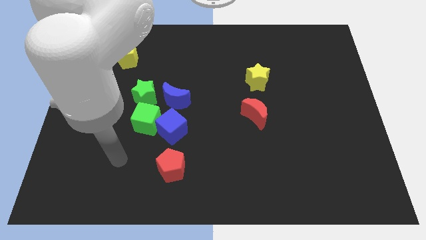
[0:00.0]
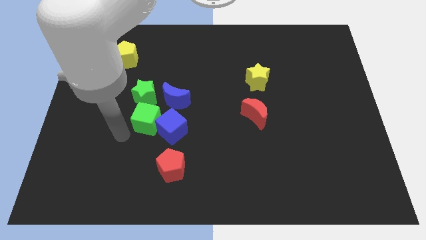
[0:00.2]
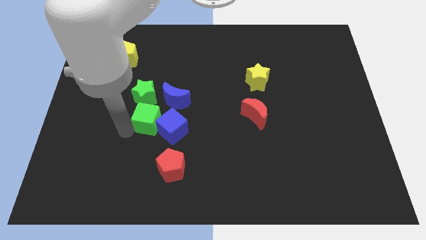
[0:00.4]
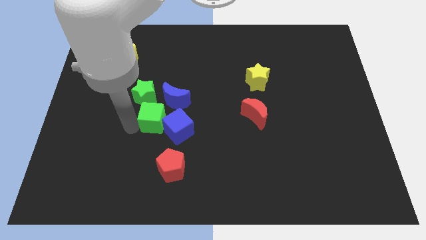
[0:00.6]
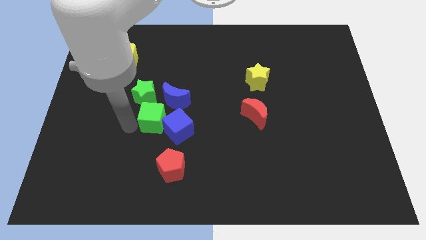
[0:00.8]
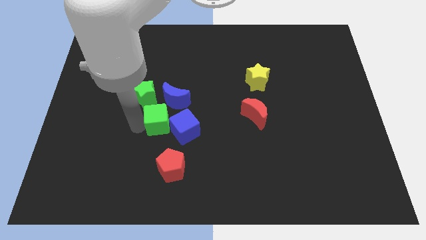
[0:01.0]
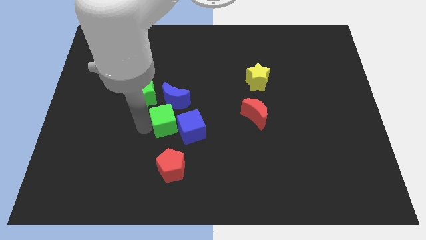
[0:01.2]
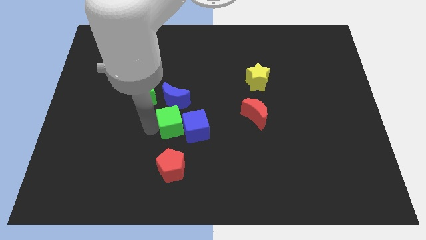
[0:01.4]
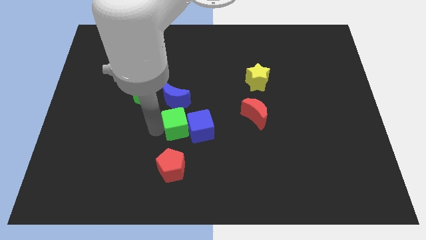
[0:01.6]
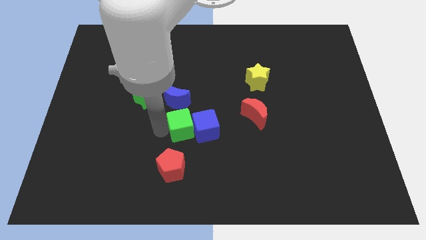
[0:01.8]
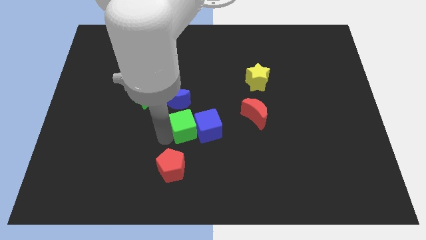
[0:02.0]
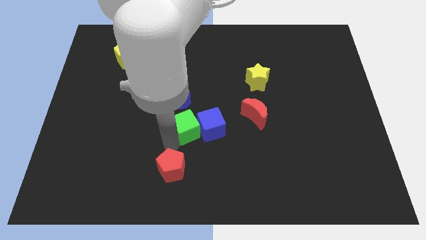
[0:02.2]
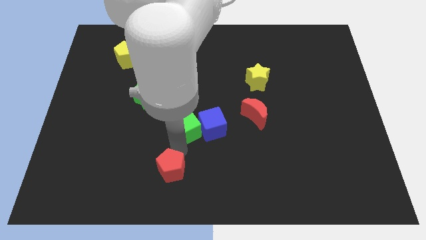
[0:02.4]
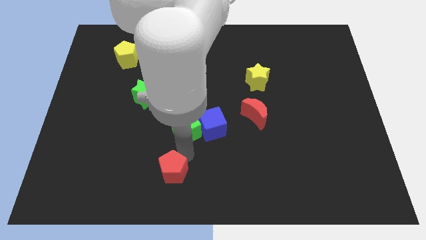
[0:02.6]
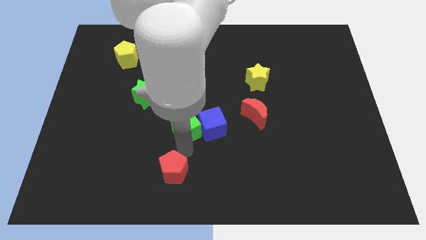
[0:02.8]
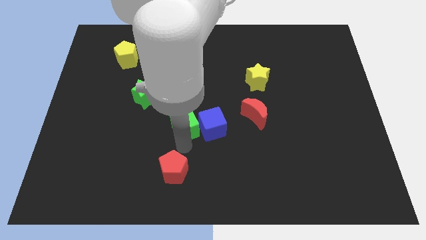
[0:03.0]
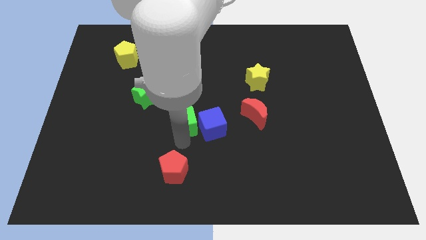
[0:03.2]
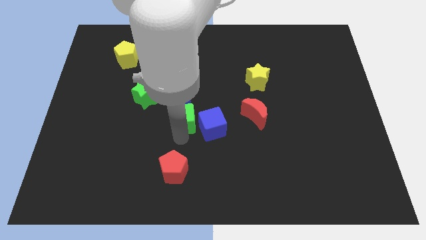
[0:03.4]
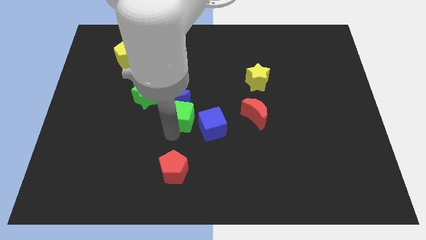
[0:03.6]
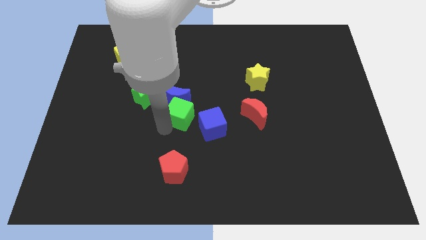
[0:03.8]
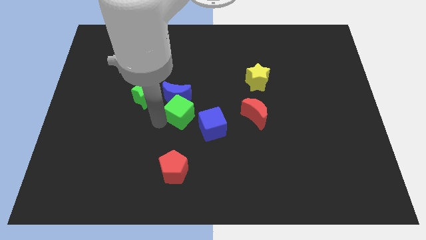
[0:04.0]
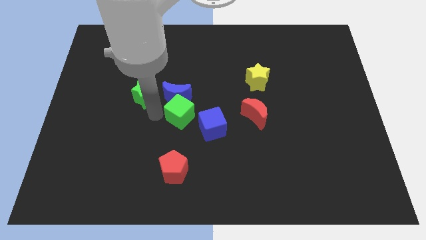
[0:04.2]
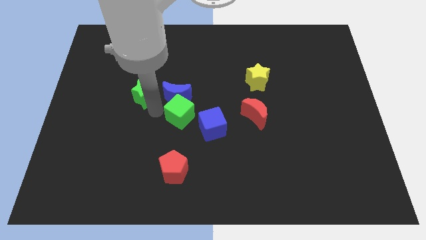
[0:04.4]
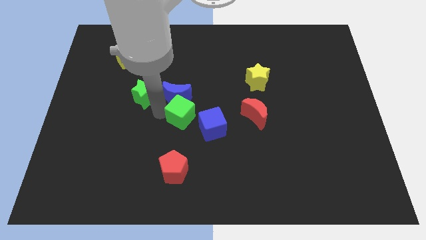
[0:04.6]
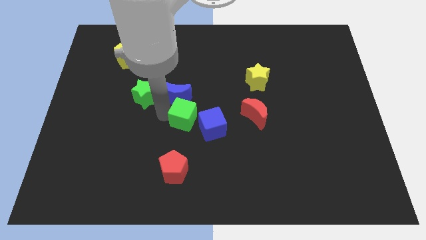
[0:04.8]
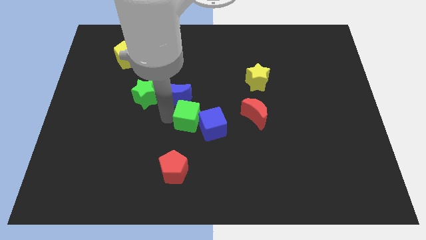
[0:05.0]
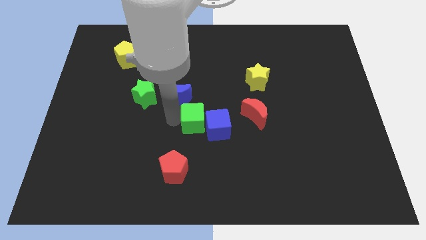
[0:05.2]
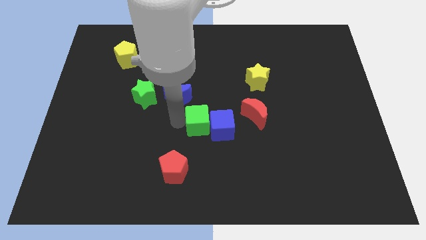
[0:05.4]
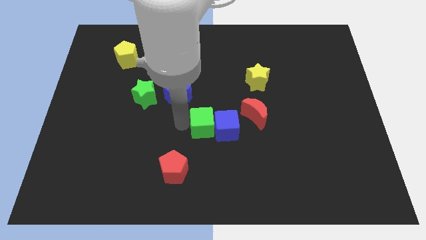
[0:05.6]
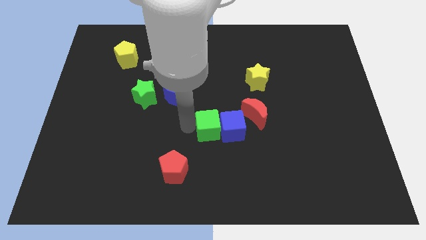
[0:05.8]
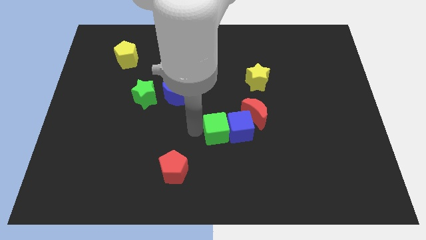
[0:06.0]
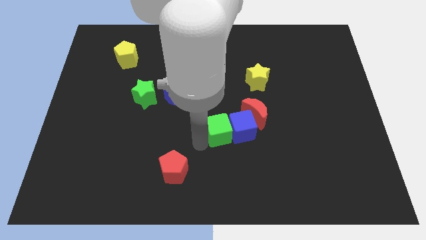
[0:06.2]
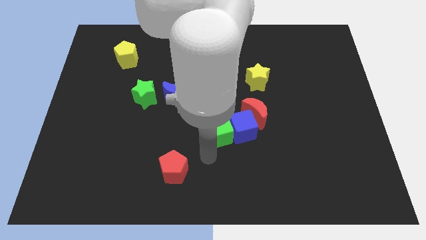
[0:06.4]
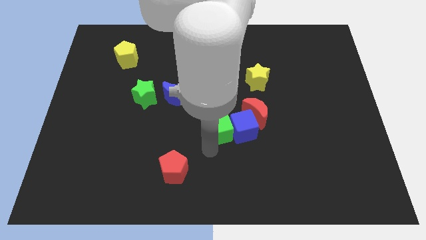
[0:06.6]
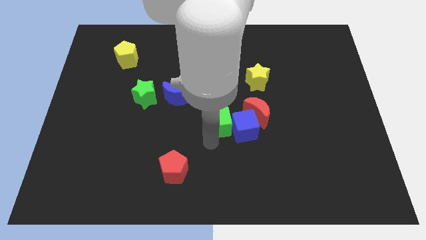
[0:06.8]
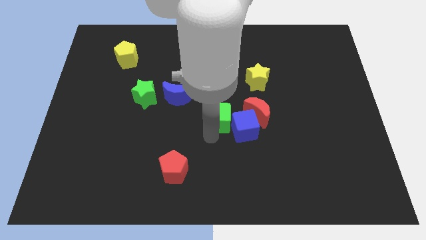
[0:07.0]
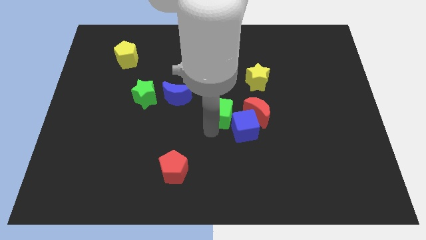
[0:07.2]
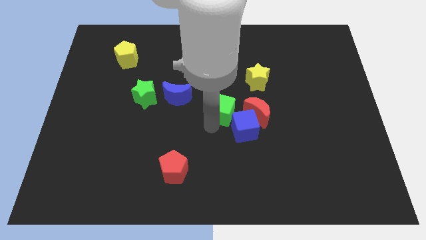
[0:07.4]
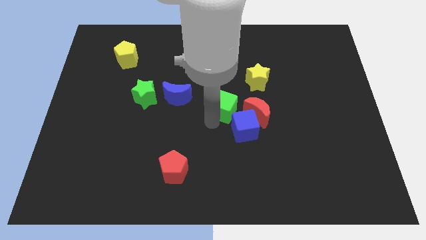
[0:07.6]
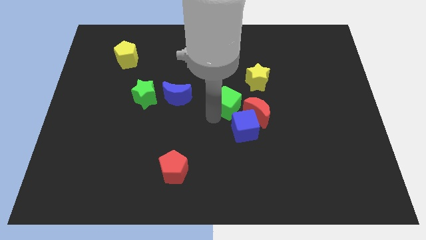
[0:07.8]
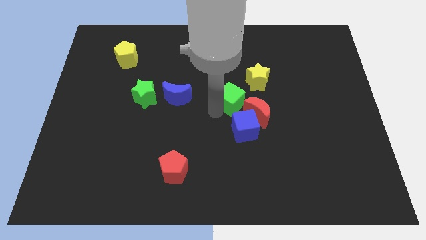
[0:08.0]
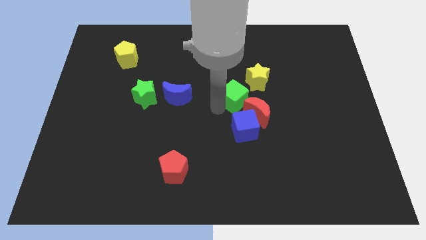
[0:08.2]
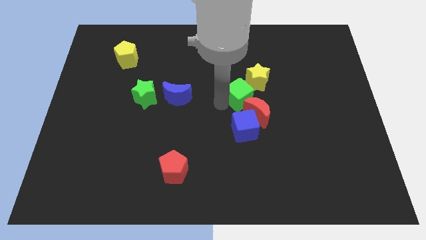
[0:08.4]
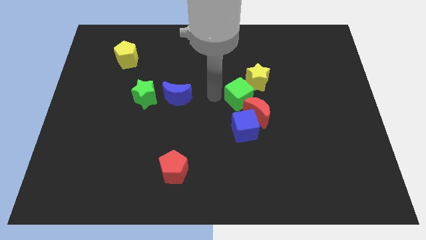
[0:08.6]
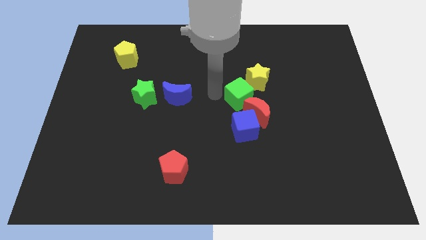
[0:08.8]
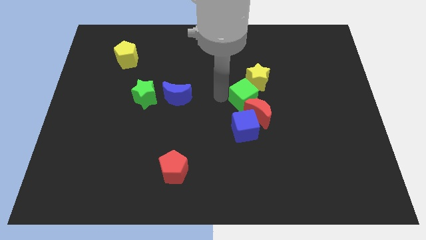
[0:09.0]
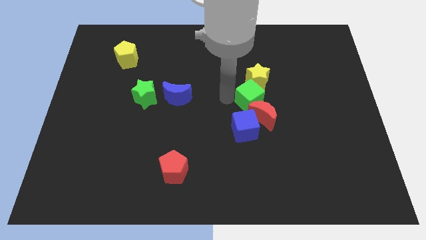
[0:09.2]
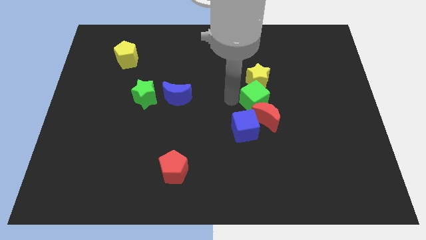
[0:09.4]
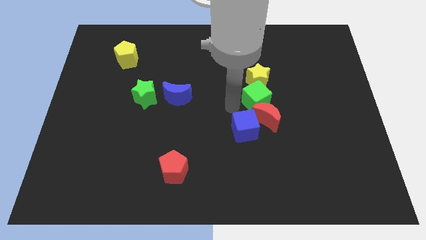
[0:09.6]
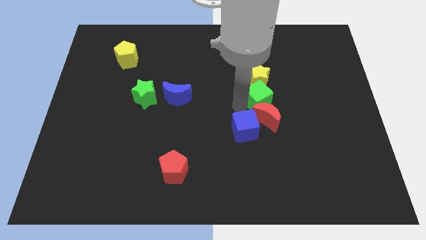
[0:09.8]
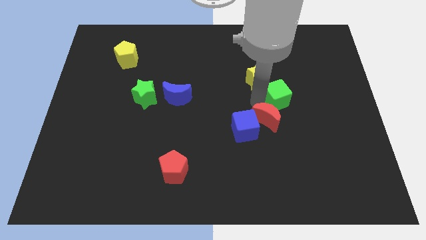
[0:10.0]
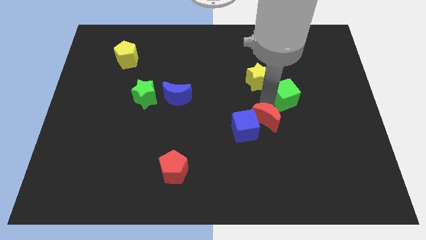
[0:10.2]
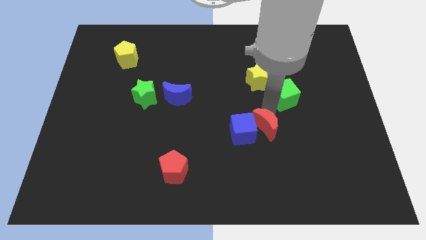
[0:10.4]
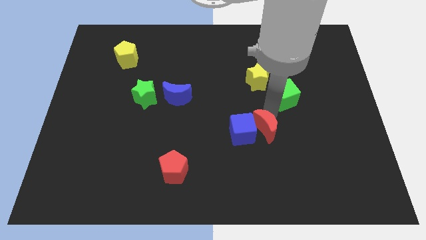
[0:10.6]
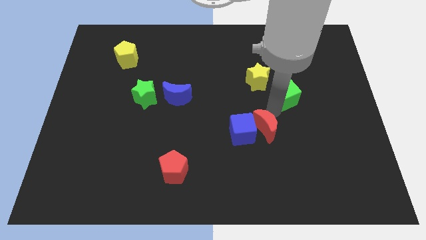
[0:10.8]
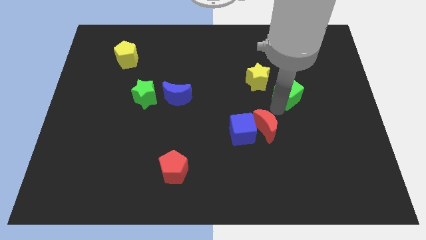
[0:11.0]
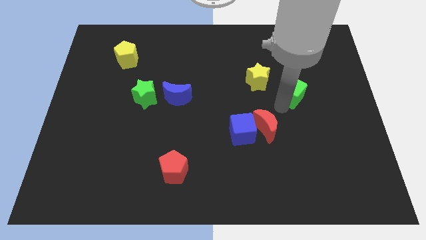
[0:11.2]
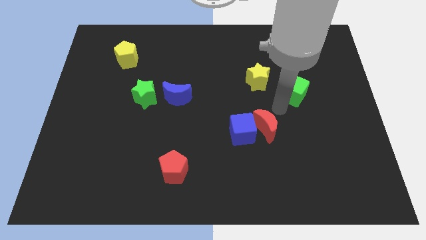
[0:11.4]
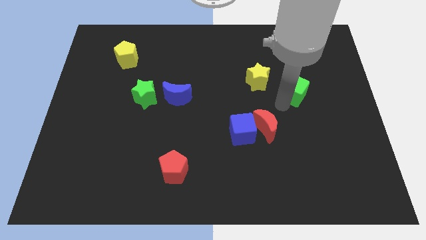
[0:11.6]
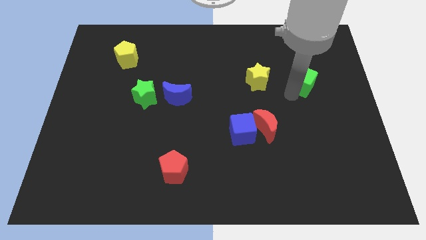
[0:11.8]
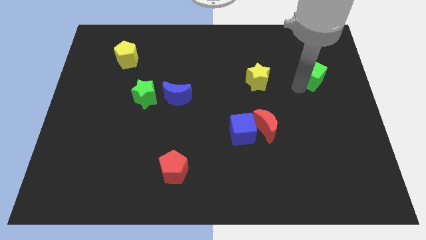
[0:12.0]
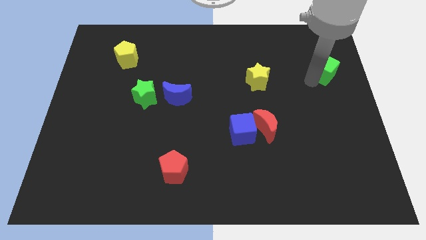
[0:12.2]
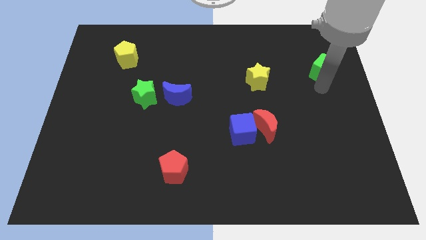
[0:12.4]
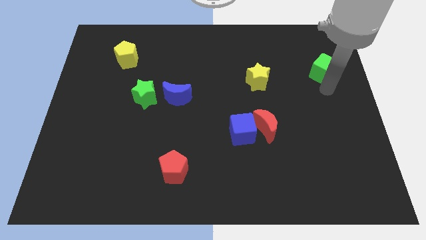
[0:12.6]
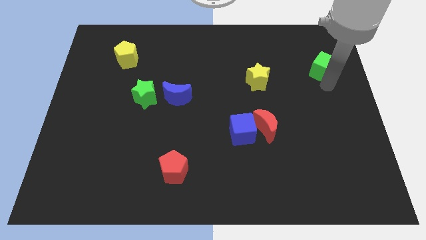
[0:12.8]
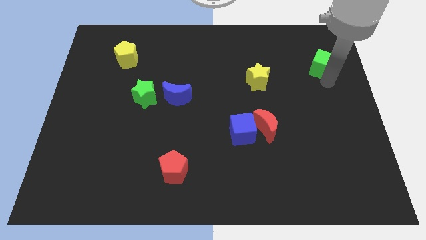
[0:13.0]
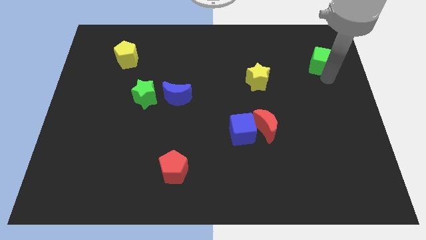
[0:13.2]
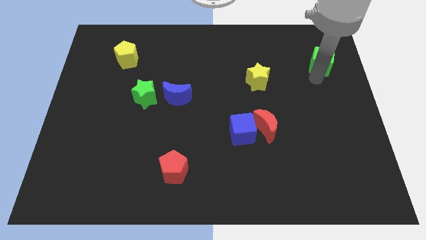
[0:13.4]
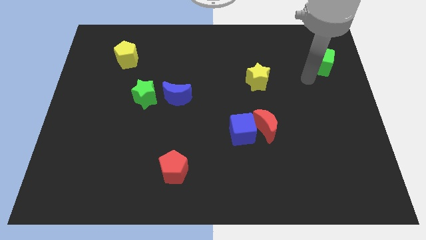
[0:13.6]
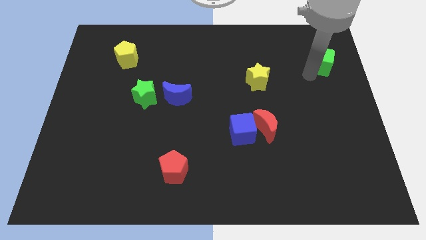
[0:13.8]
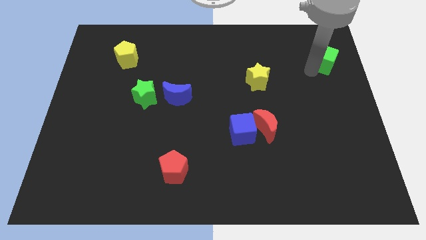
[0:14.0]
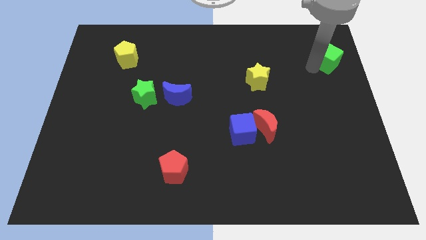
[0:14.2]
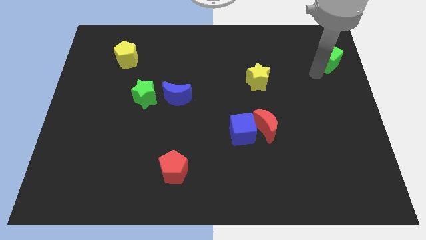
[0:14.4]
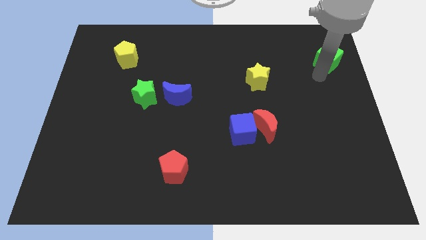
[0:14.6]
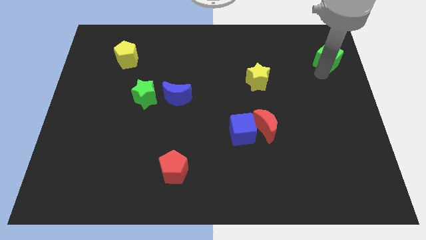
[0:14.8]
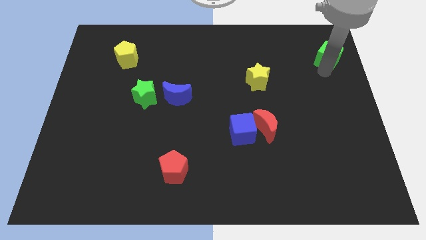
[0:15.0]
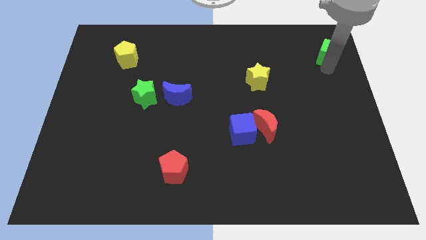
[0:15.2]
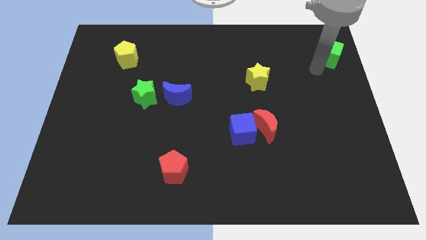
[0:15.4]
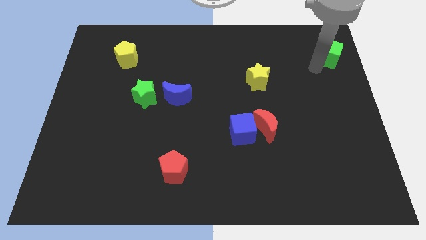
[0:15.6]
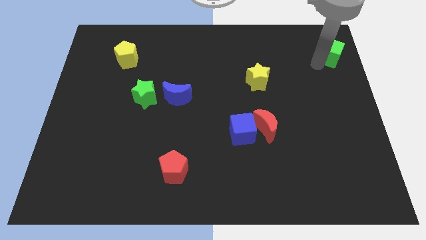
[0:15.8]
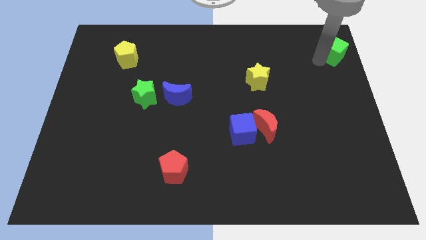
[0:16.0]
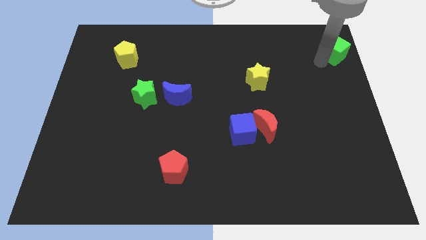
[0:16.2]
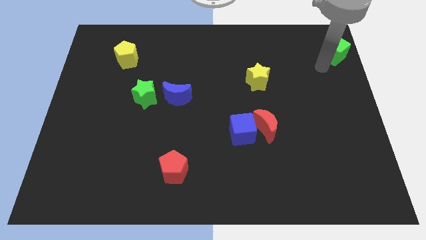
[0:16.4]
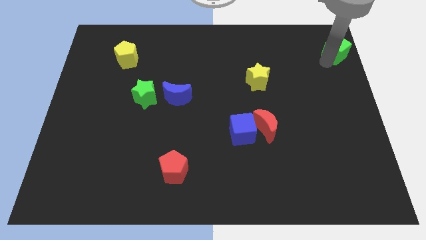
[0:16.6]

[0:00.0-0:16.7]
slide the green cube to the top right
